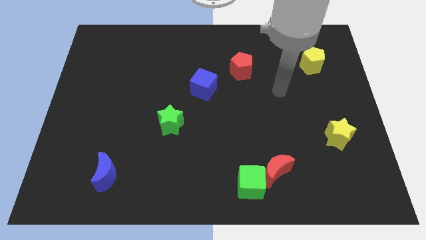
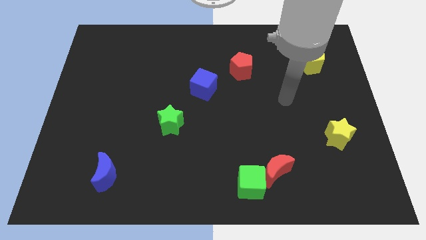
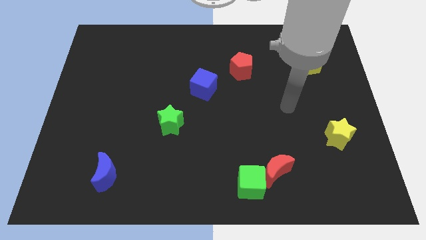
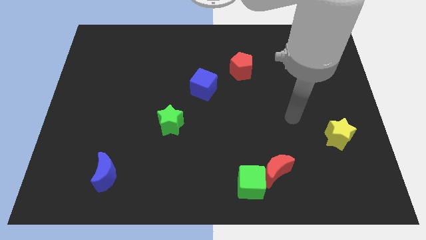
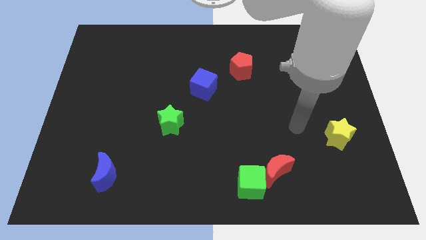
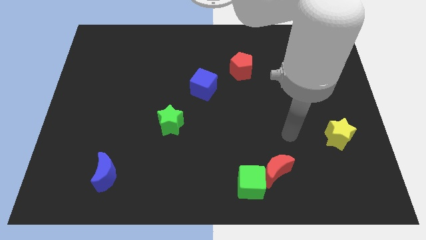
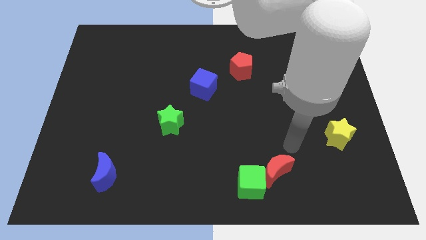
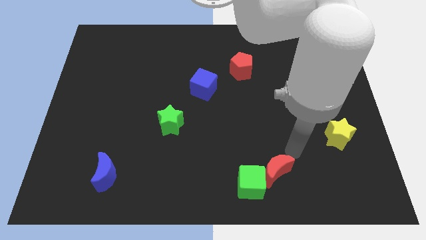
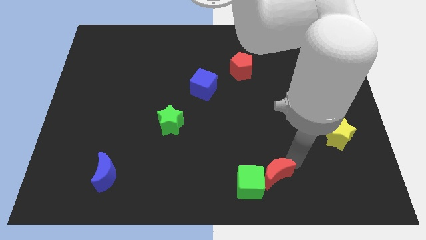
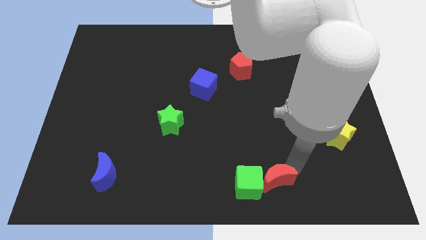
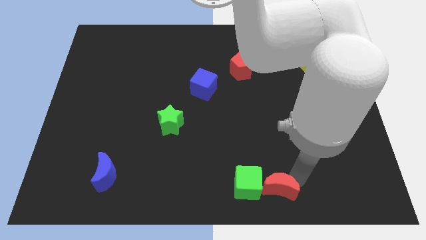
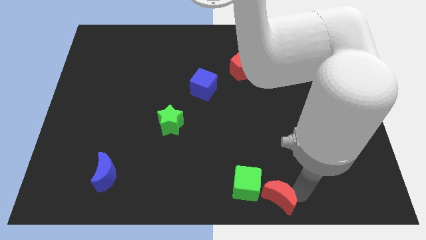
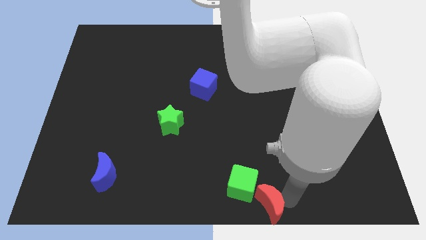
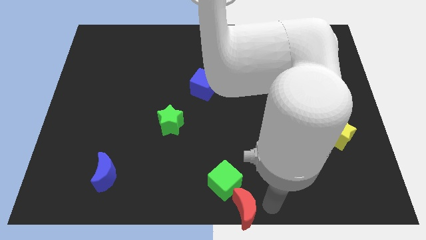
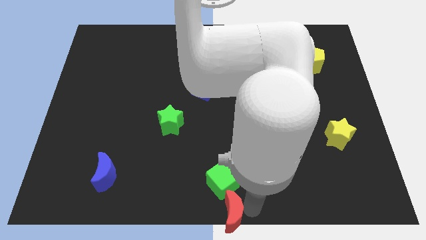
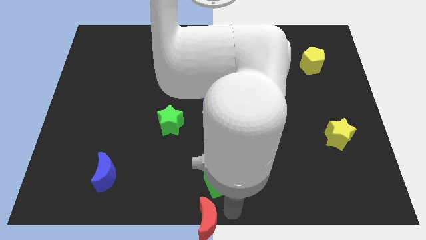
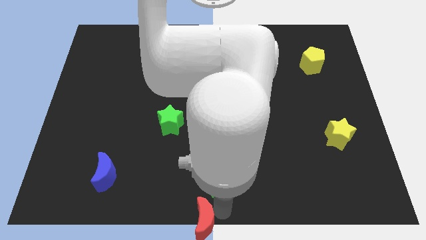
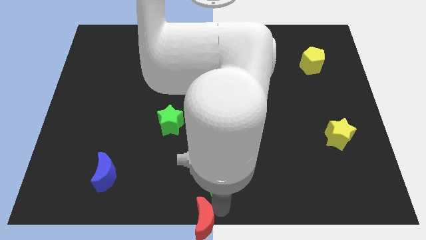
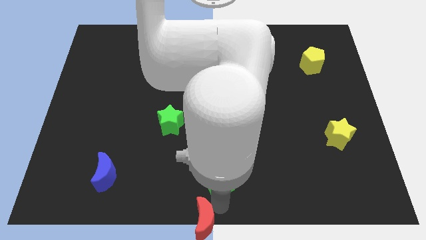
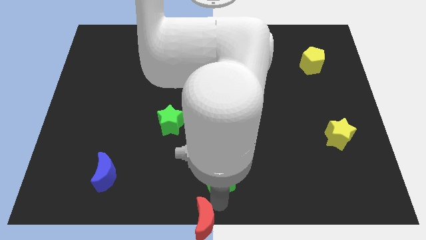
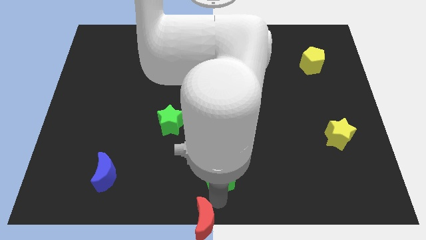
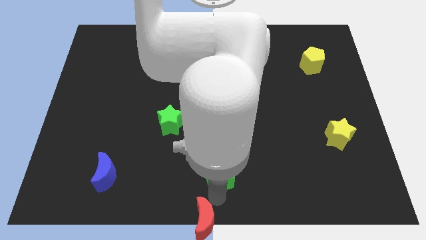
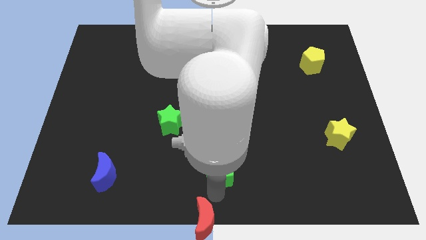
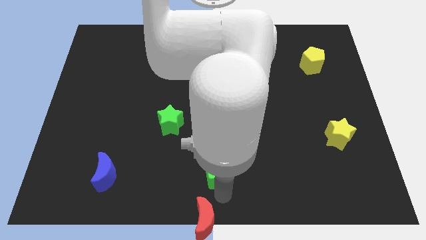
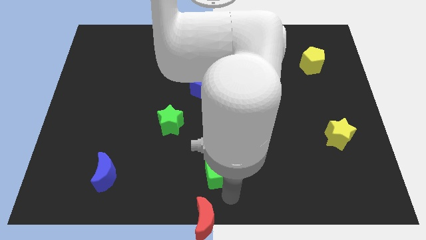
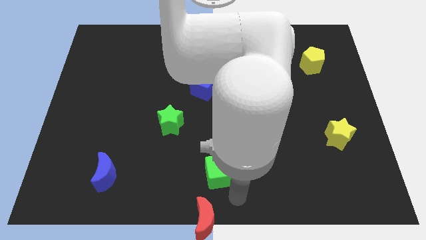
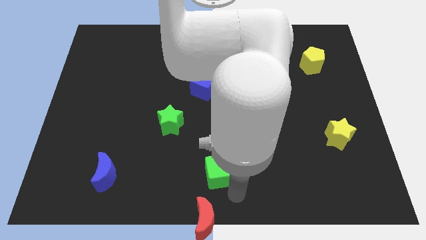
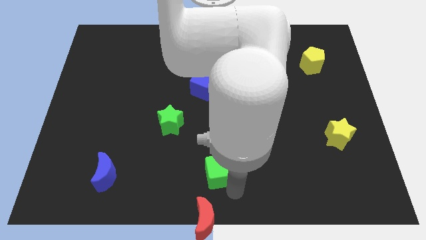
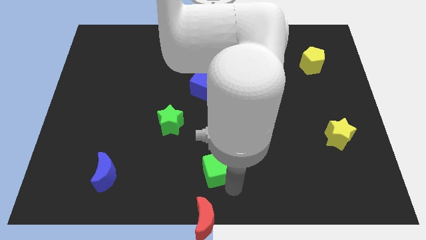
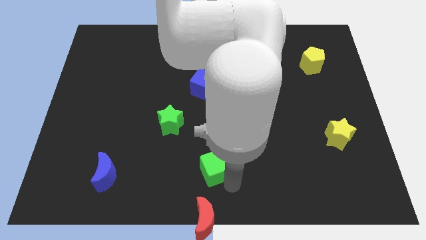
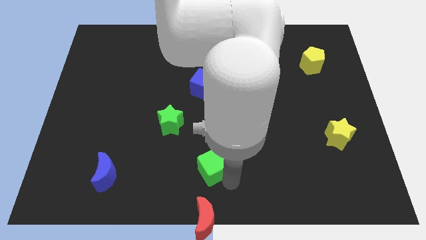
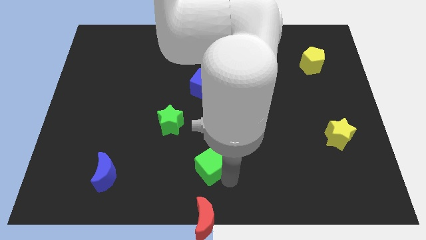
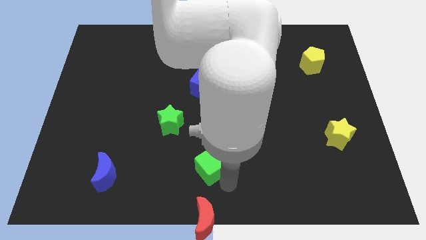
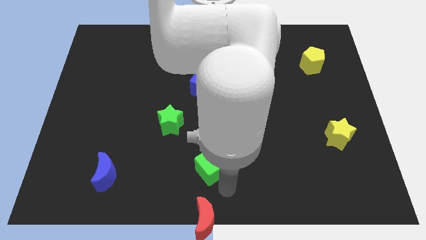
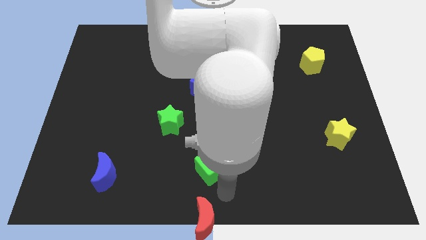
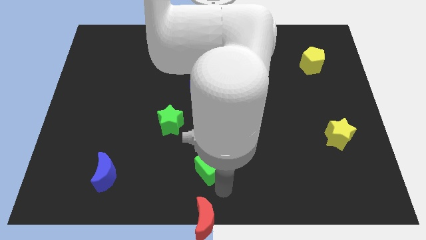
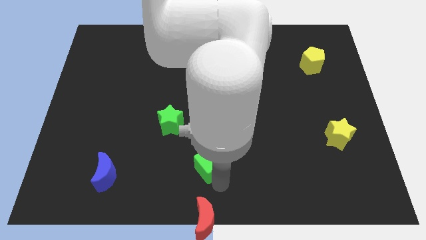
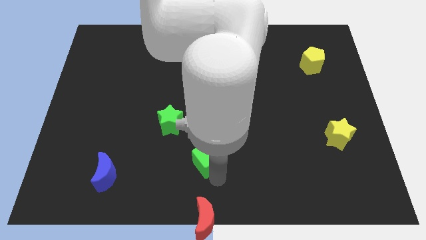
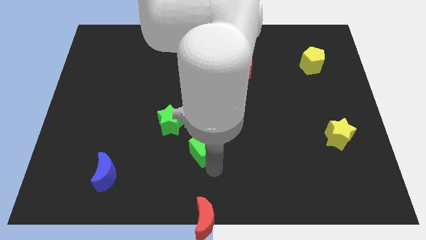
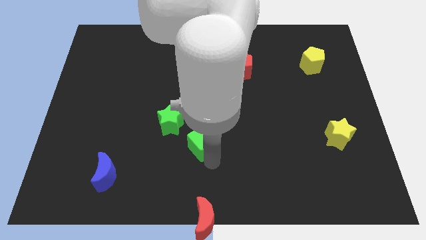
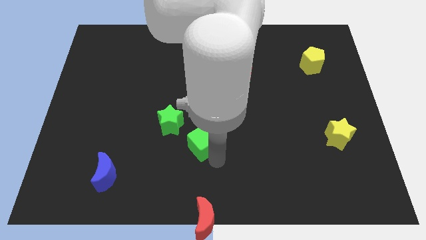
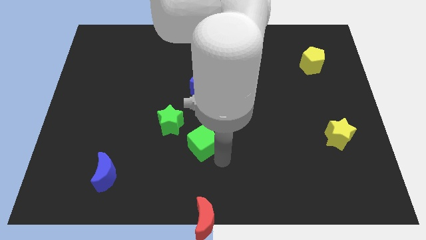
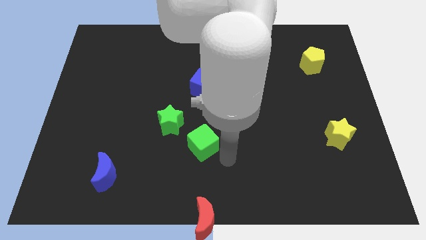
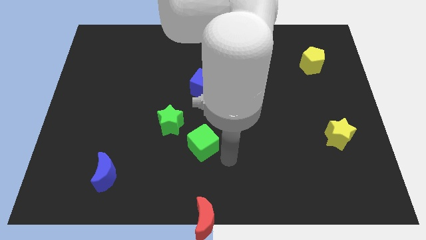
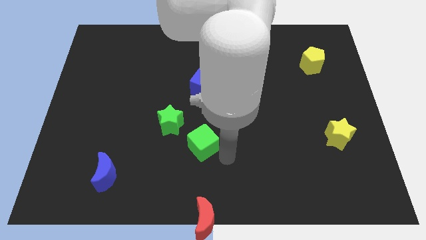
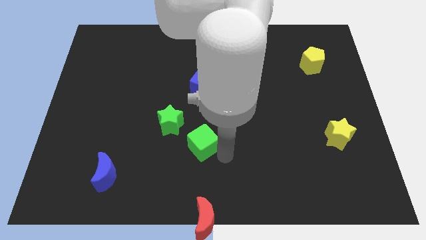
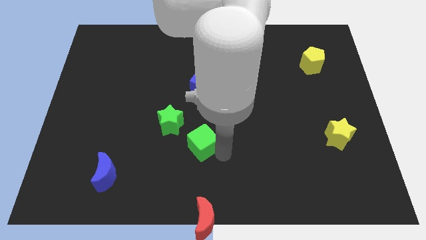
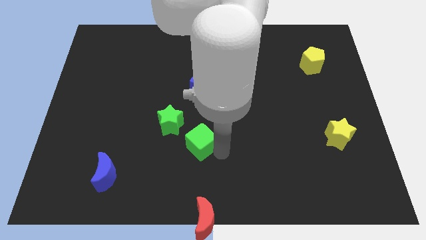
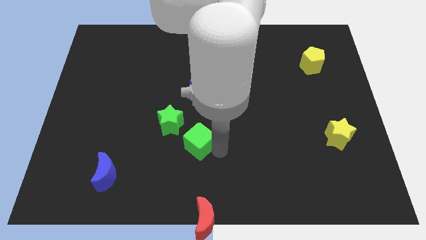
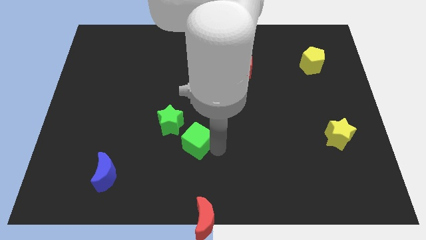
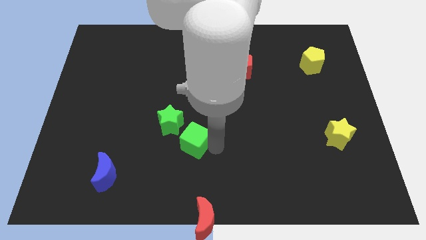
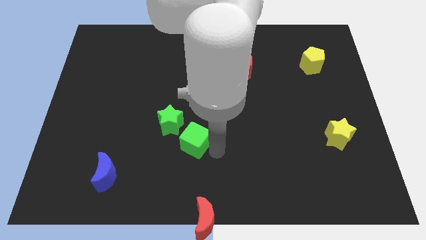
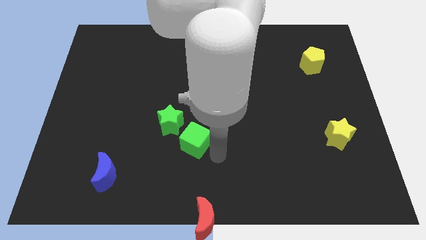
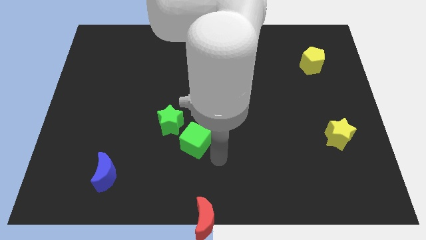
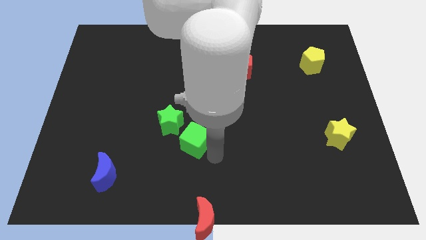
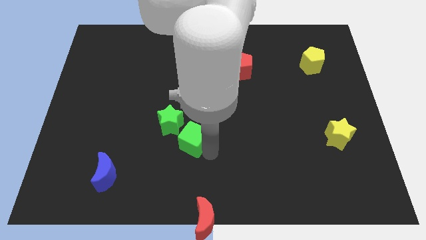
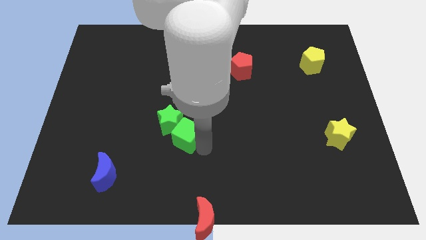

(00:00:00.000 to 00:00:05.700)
move the green cube next to the green star

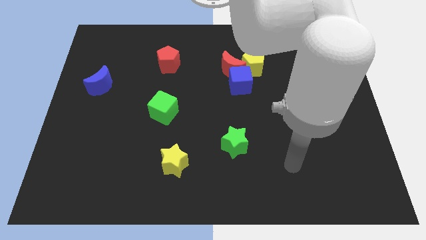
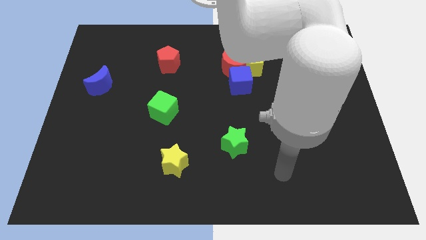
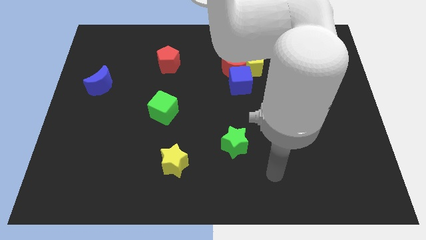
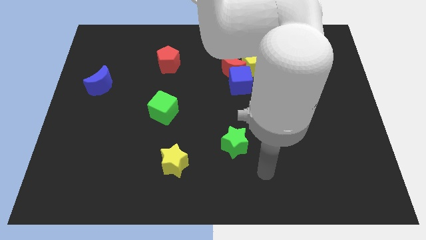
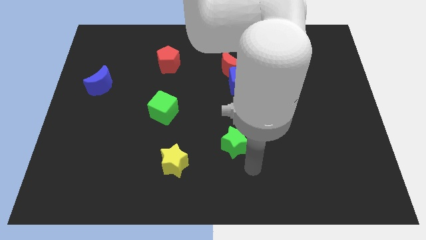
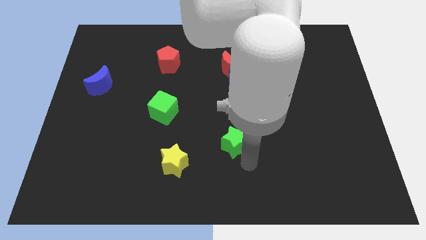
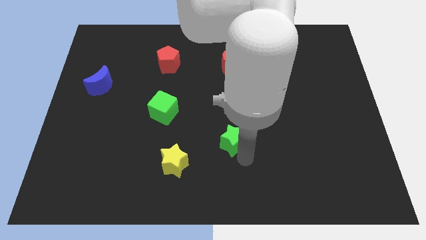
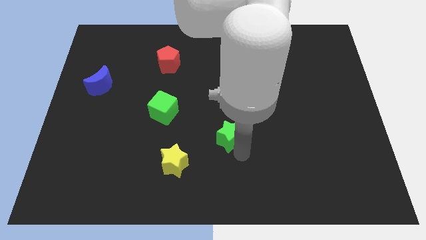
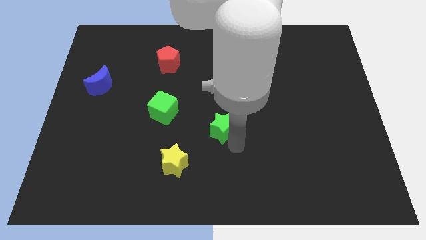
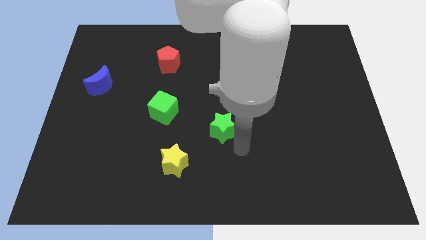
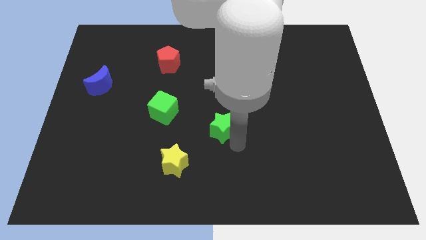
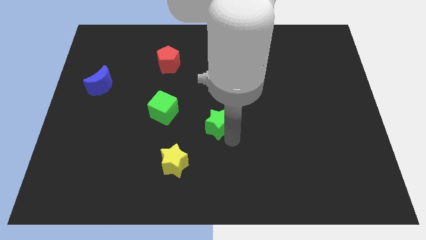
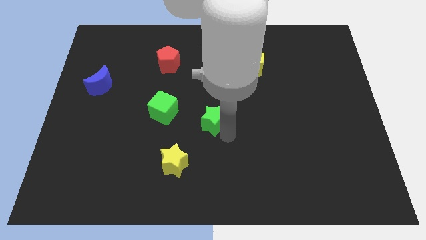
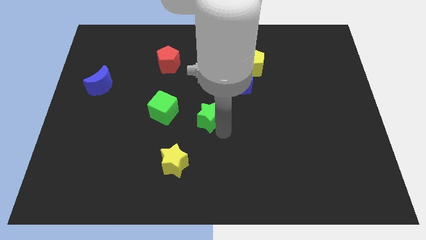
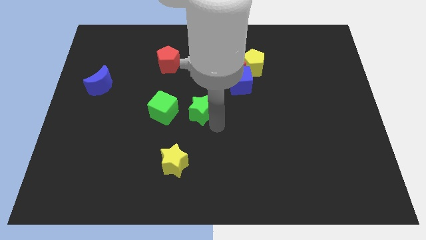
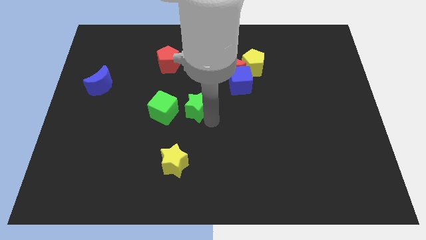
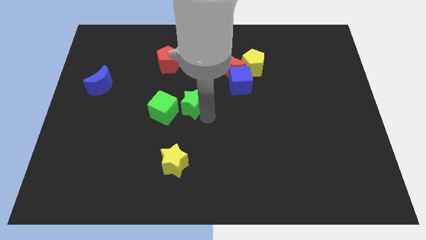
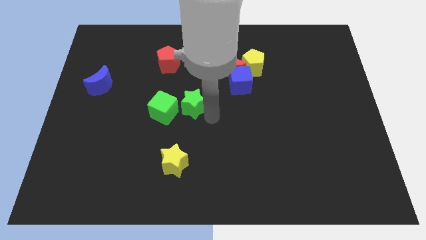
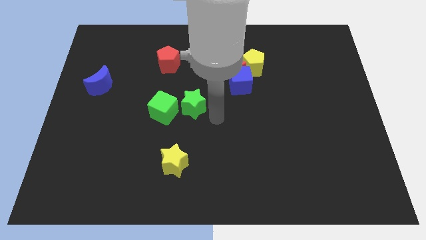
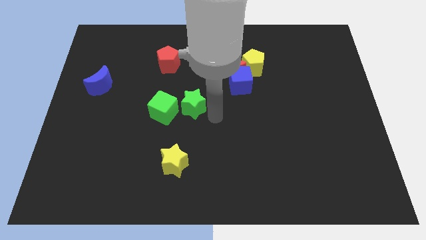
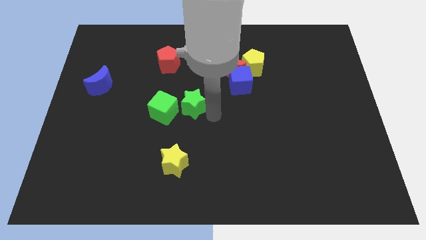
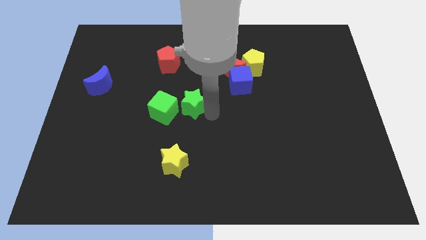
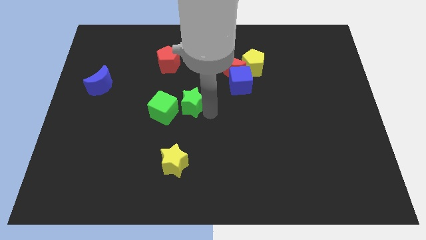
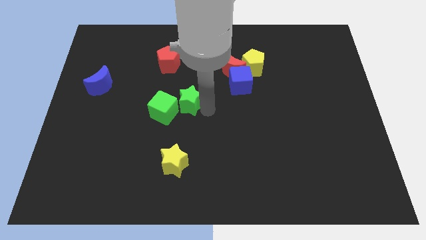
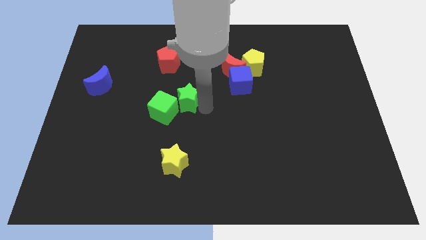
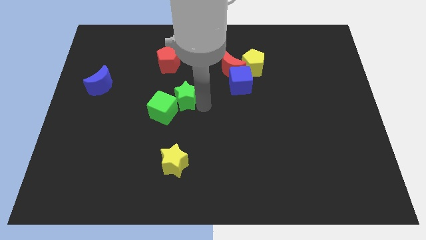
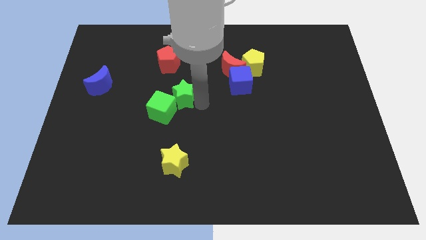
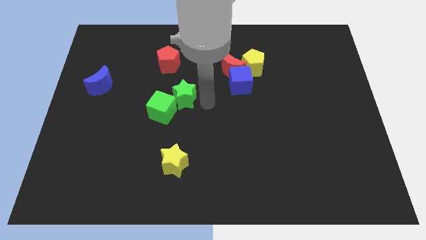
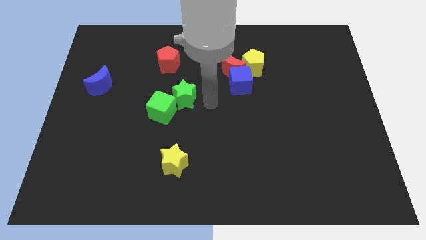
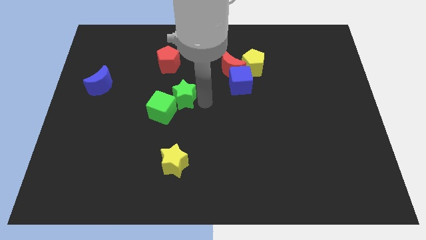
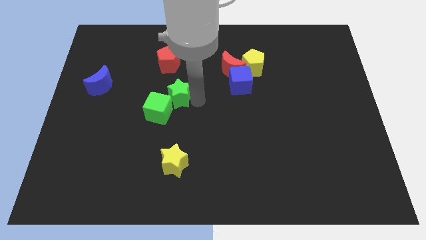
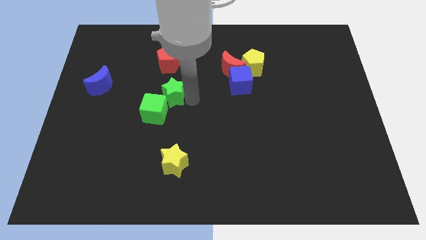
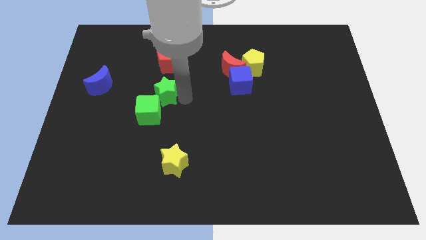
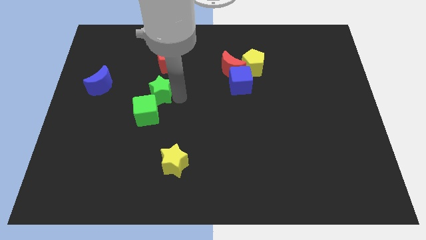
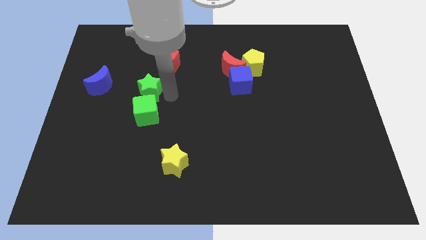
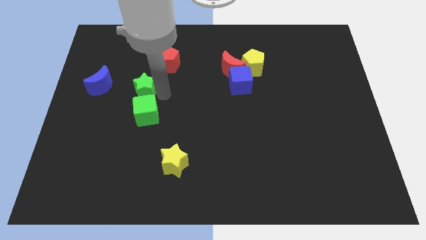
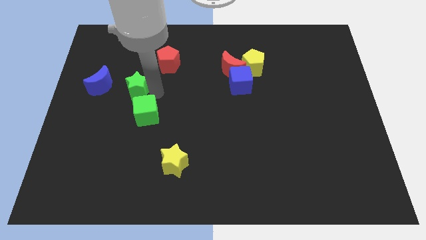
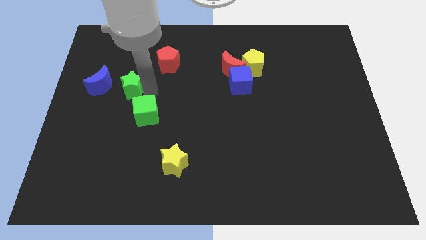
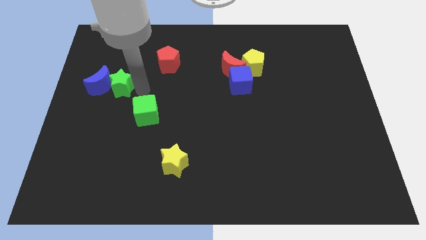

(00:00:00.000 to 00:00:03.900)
slide the green star towards the blue moon
